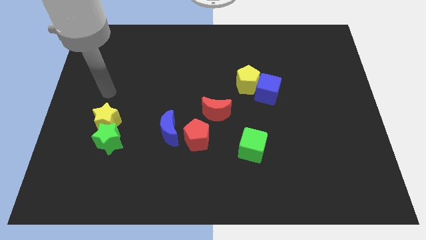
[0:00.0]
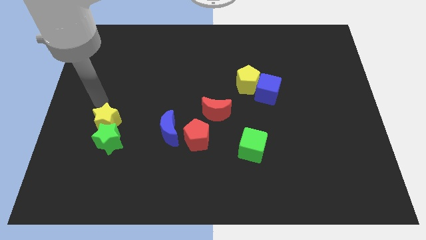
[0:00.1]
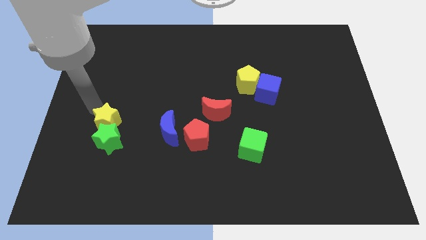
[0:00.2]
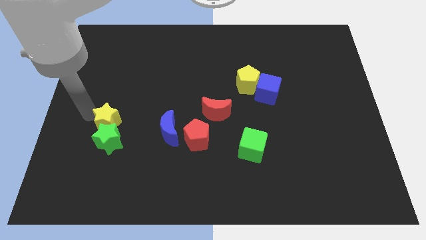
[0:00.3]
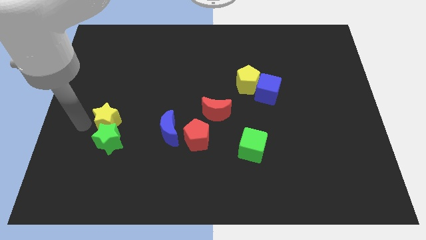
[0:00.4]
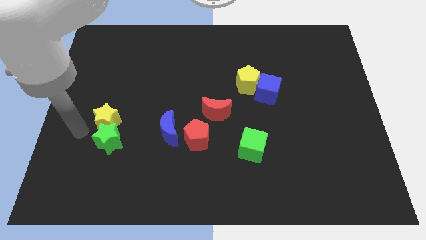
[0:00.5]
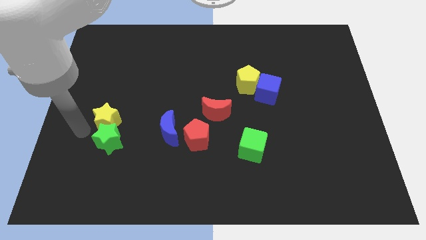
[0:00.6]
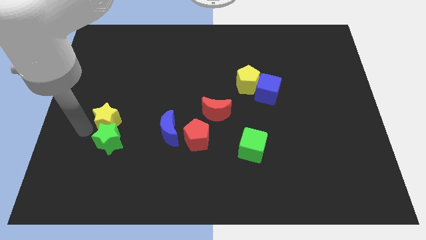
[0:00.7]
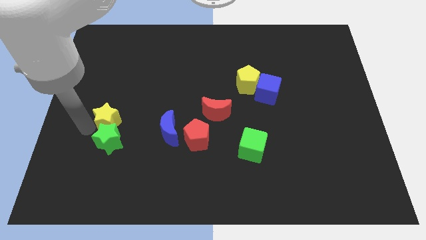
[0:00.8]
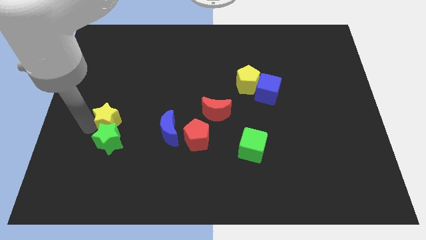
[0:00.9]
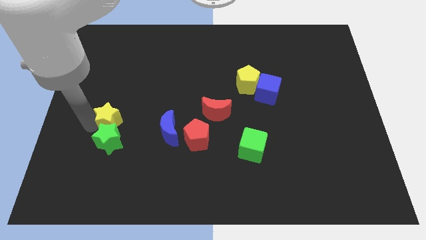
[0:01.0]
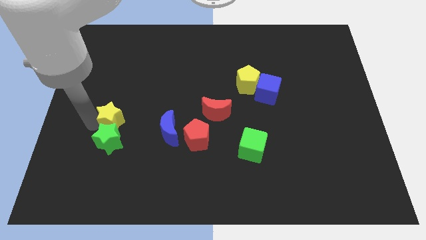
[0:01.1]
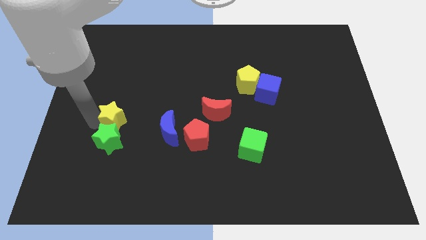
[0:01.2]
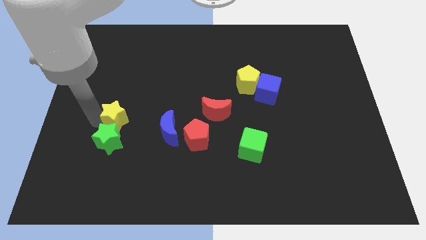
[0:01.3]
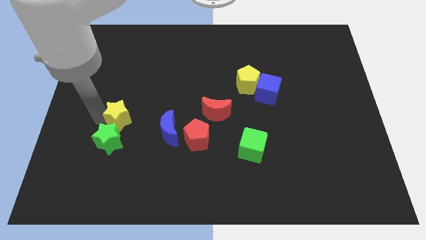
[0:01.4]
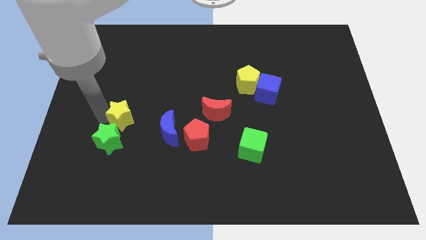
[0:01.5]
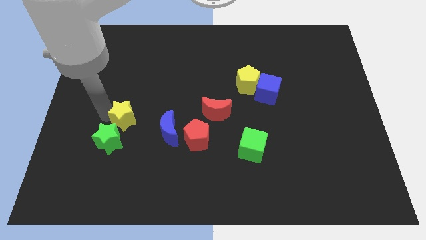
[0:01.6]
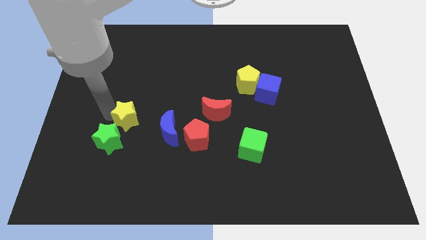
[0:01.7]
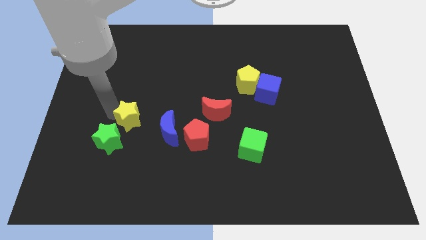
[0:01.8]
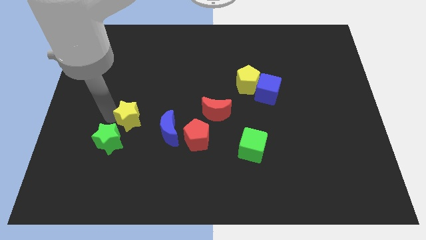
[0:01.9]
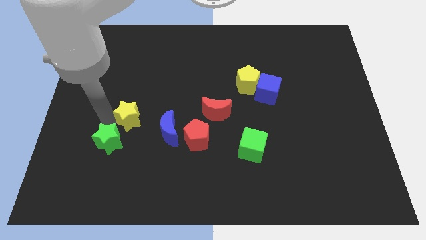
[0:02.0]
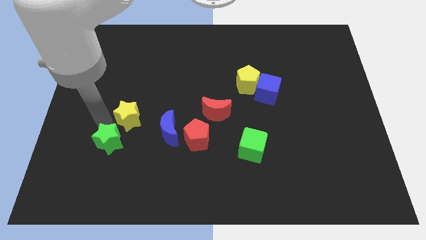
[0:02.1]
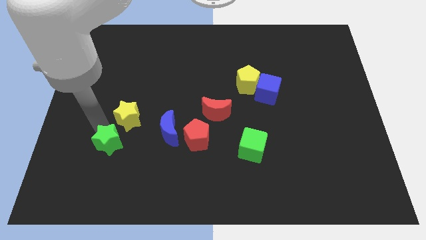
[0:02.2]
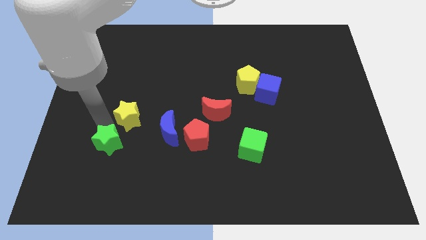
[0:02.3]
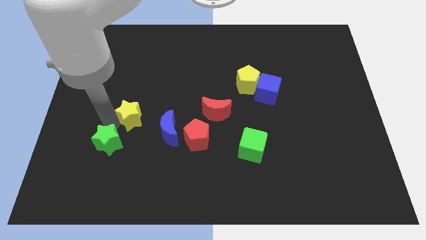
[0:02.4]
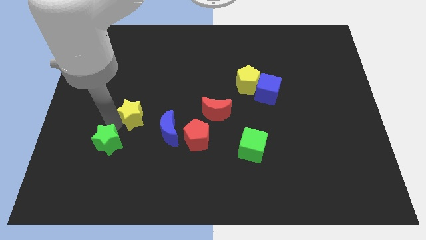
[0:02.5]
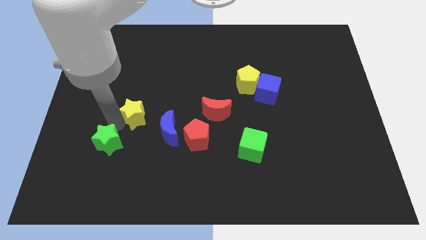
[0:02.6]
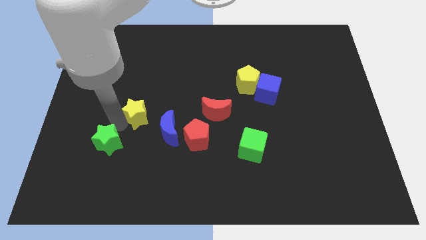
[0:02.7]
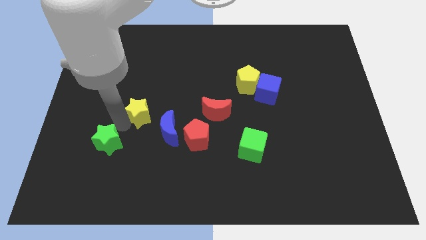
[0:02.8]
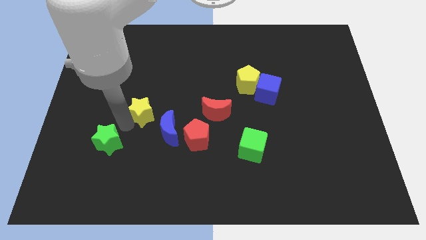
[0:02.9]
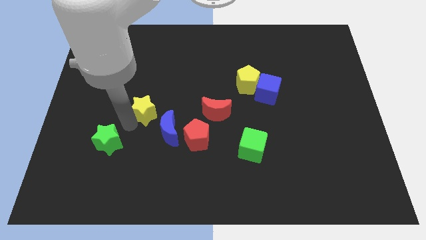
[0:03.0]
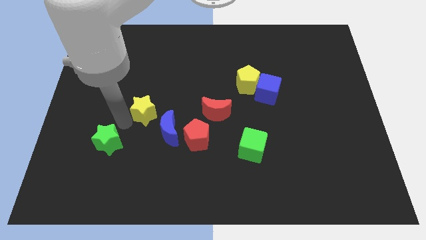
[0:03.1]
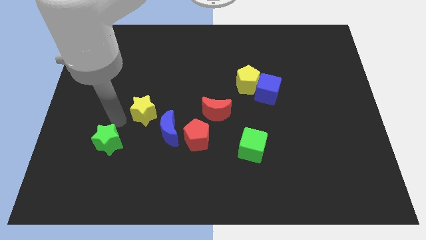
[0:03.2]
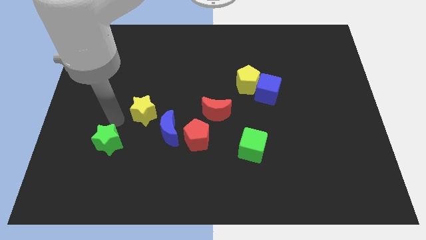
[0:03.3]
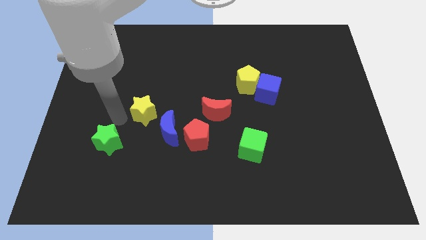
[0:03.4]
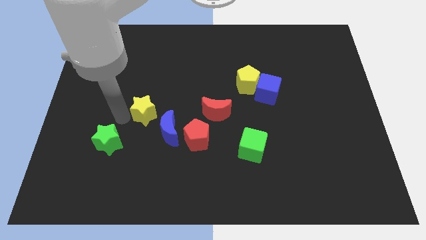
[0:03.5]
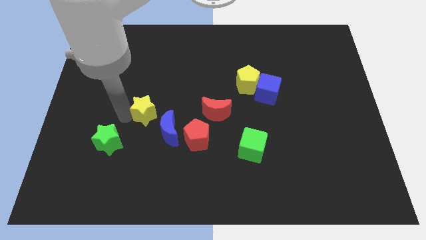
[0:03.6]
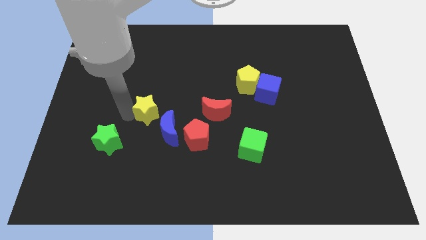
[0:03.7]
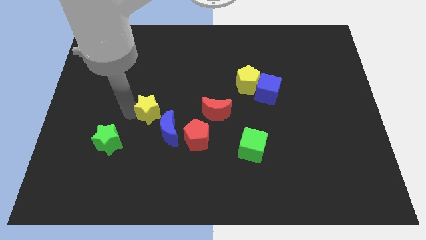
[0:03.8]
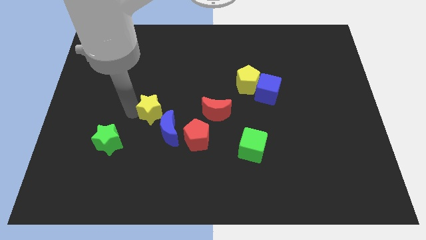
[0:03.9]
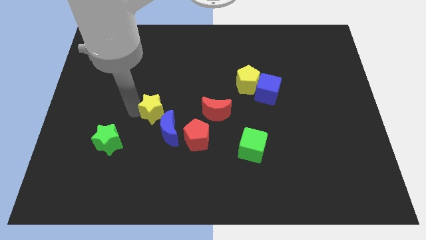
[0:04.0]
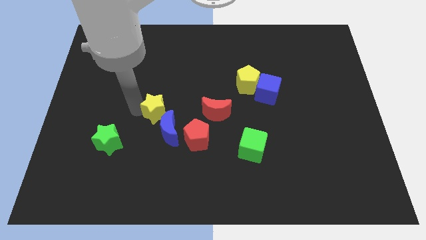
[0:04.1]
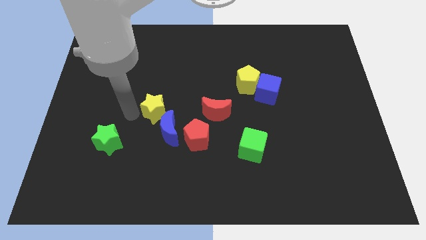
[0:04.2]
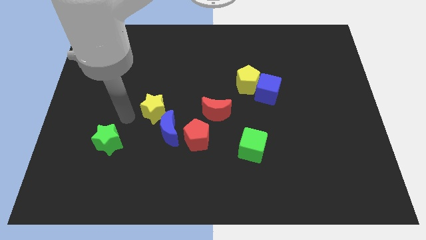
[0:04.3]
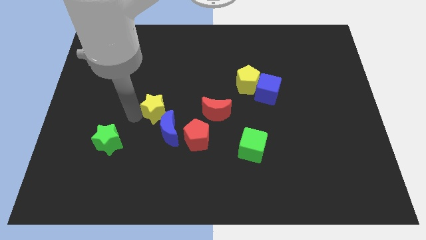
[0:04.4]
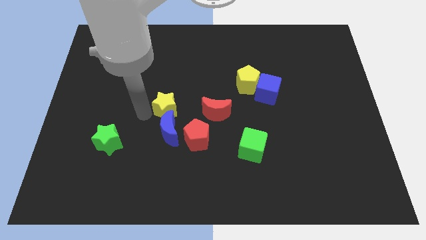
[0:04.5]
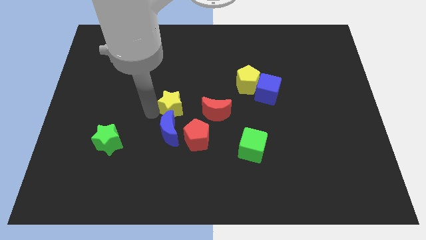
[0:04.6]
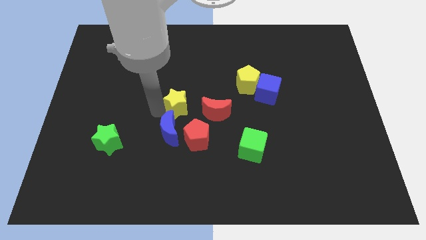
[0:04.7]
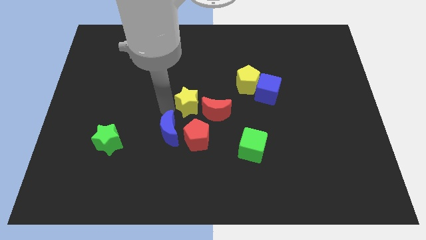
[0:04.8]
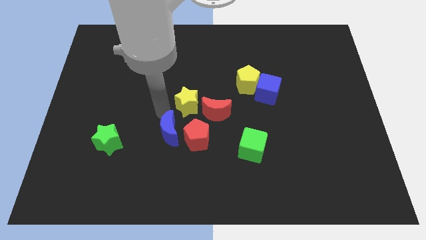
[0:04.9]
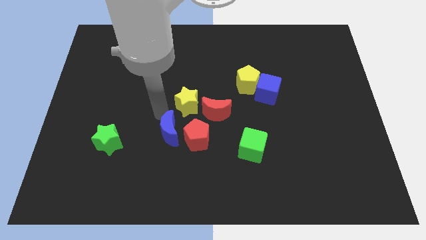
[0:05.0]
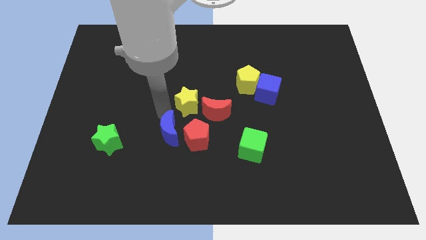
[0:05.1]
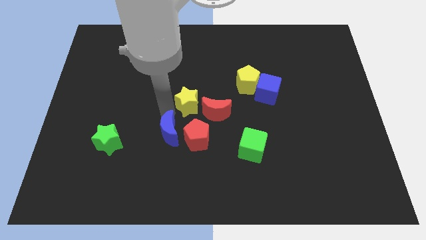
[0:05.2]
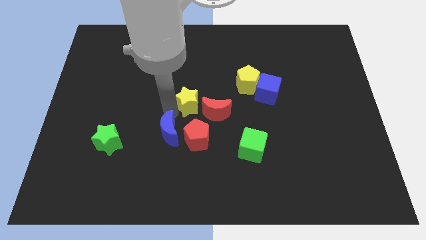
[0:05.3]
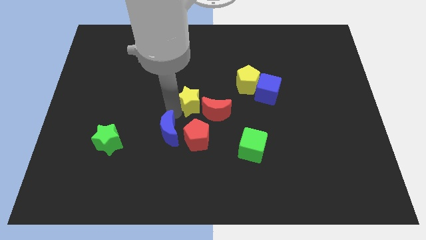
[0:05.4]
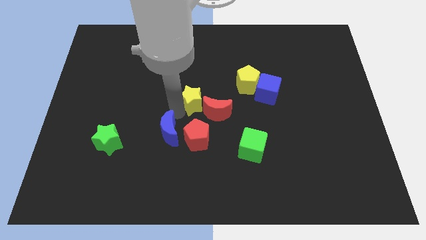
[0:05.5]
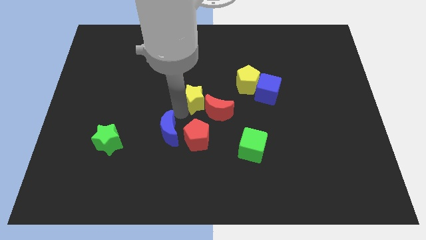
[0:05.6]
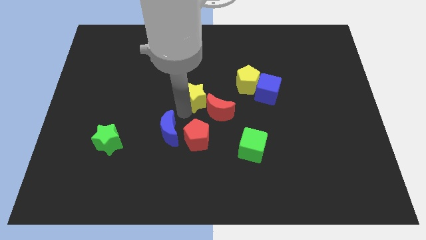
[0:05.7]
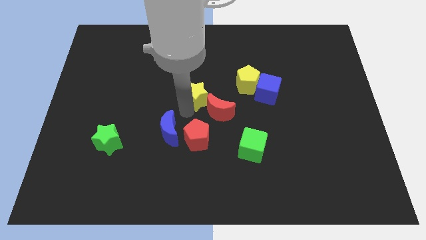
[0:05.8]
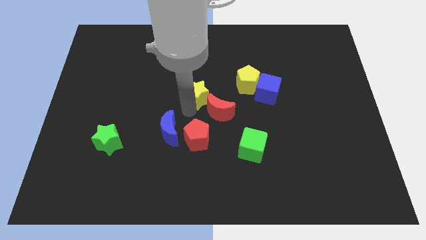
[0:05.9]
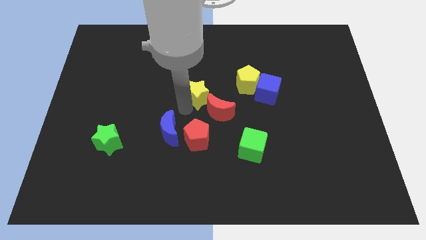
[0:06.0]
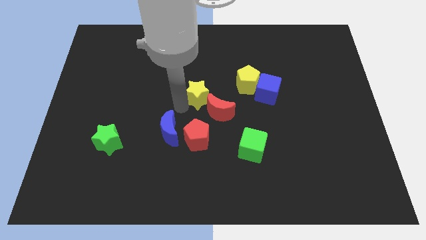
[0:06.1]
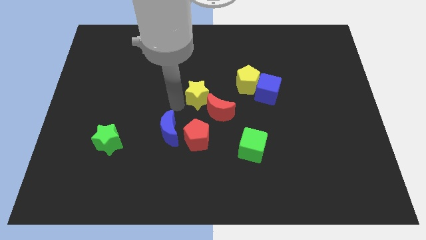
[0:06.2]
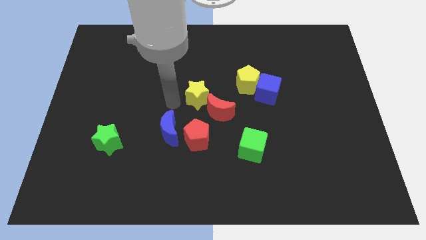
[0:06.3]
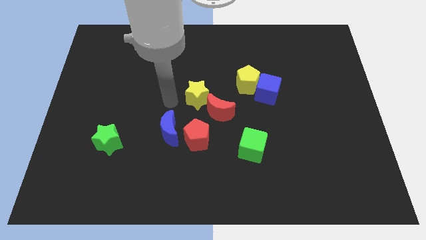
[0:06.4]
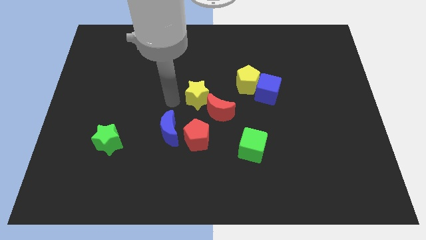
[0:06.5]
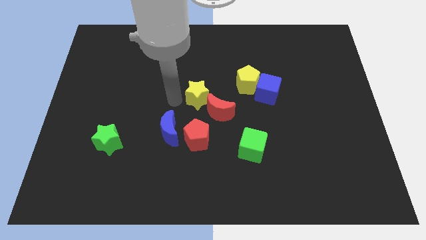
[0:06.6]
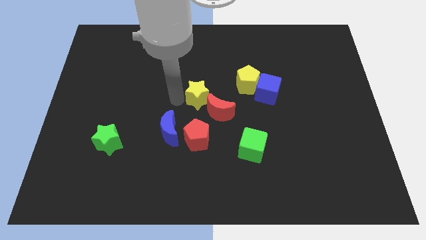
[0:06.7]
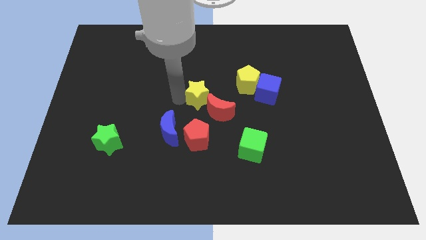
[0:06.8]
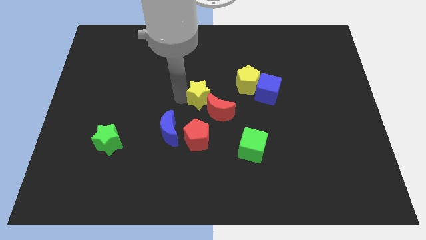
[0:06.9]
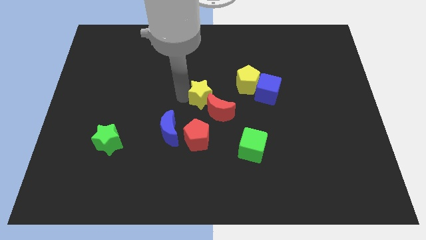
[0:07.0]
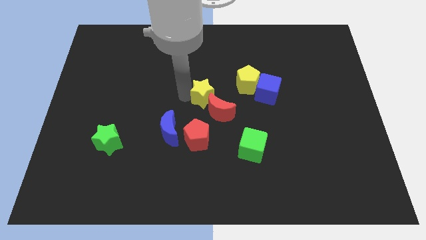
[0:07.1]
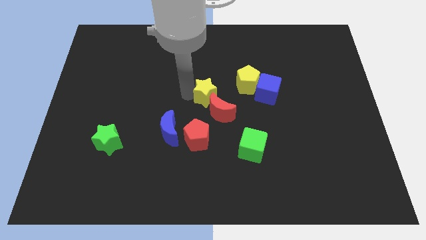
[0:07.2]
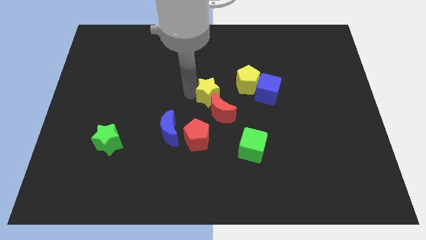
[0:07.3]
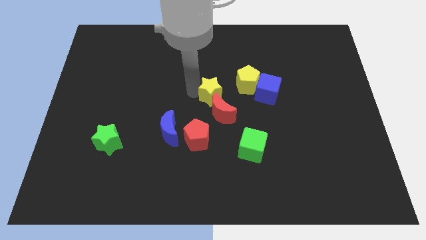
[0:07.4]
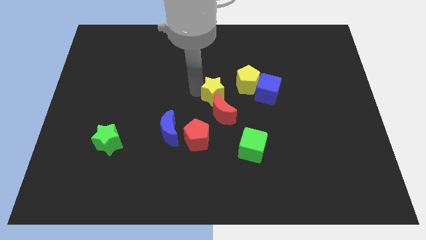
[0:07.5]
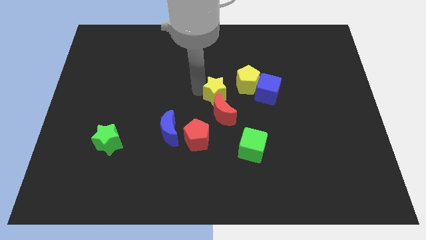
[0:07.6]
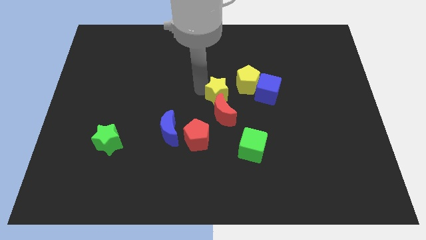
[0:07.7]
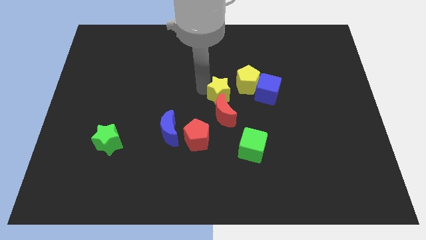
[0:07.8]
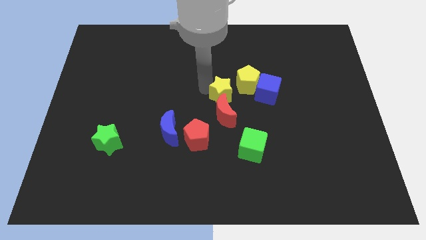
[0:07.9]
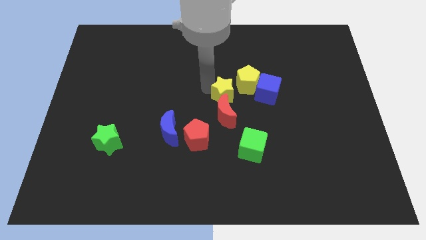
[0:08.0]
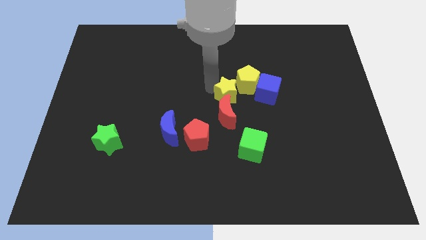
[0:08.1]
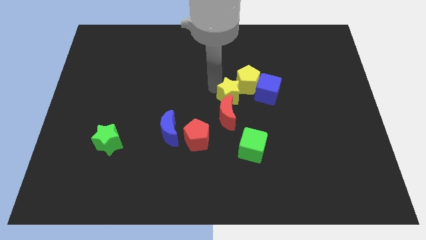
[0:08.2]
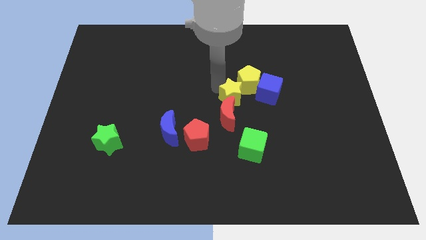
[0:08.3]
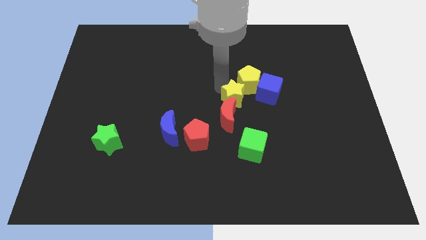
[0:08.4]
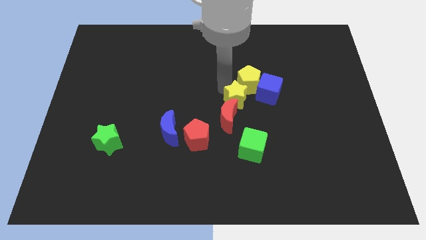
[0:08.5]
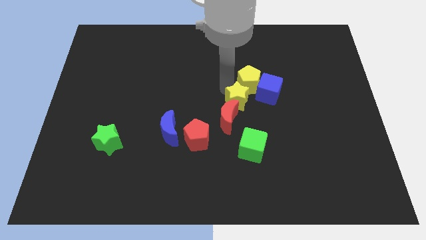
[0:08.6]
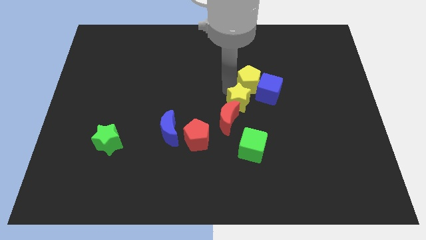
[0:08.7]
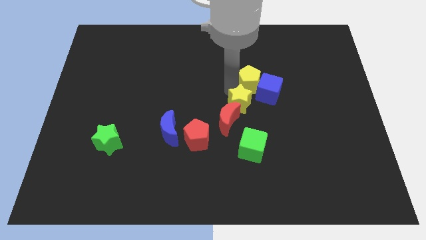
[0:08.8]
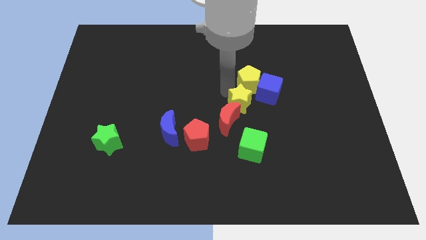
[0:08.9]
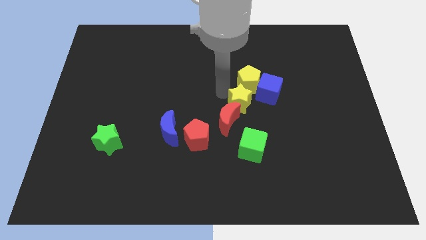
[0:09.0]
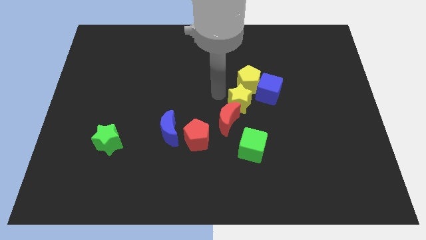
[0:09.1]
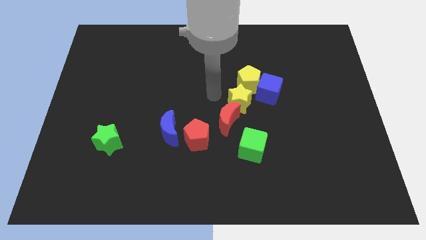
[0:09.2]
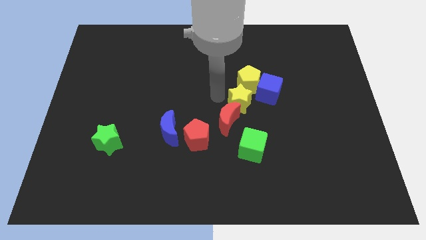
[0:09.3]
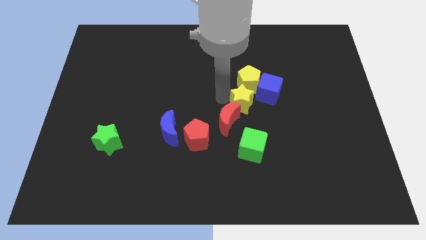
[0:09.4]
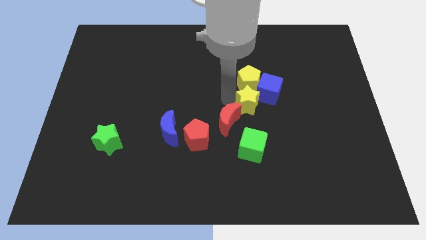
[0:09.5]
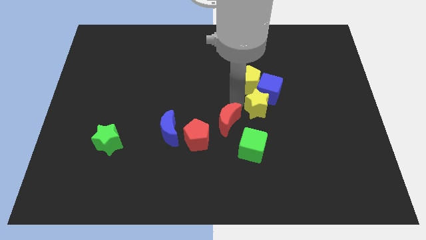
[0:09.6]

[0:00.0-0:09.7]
slide the yellow star close to the blue cube
